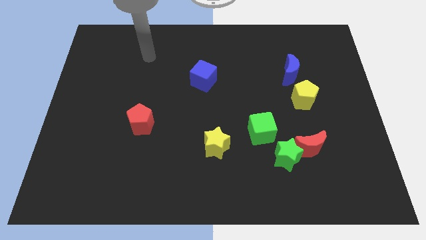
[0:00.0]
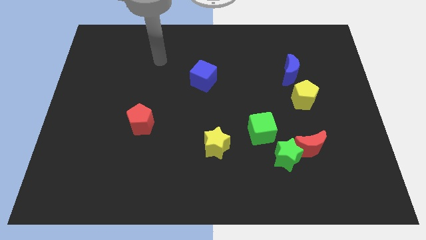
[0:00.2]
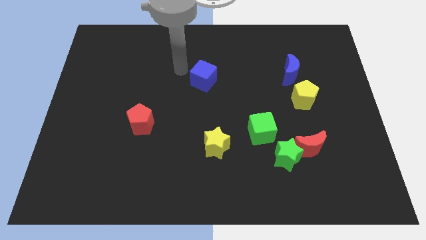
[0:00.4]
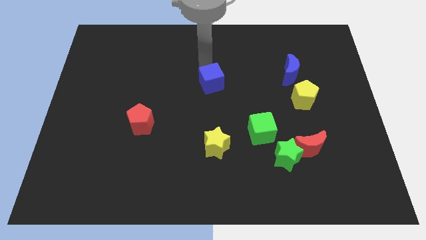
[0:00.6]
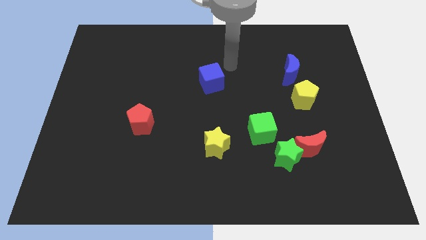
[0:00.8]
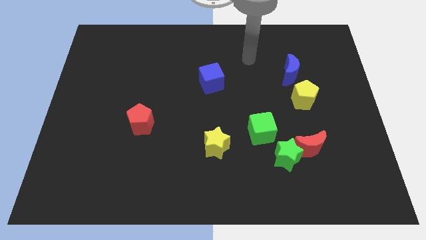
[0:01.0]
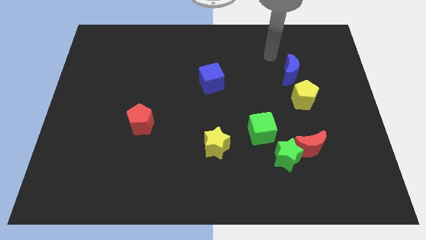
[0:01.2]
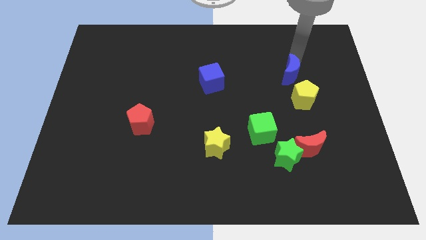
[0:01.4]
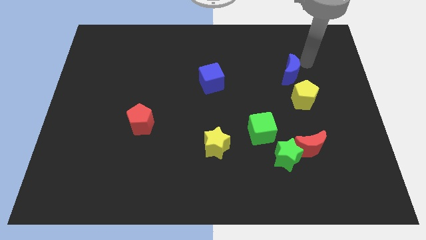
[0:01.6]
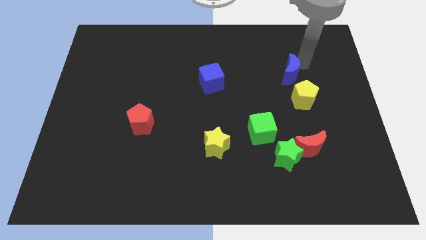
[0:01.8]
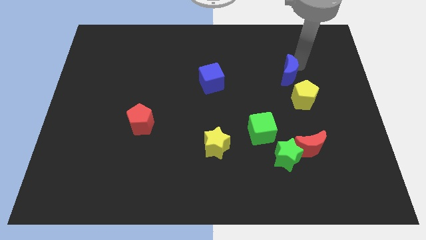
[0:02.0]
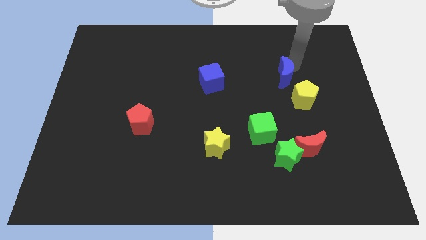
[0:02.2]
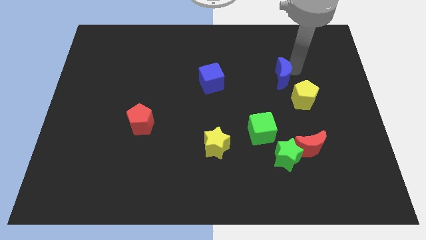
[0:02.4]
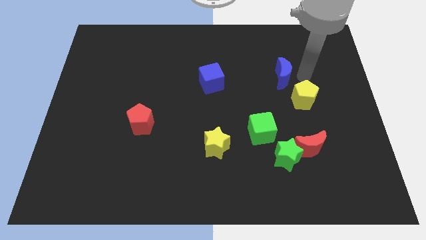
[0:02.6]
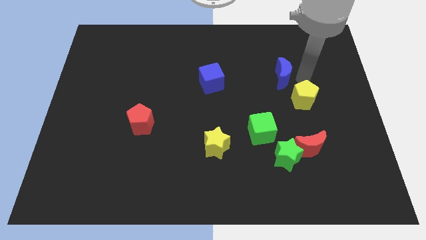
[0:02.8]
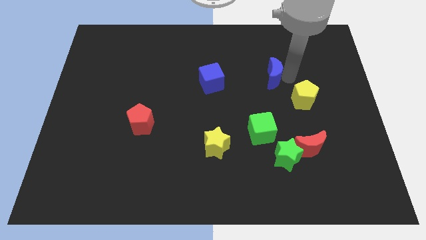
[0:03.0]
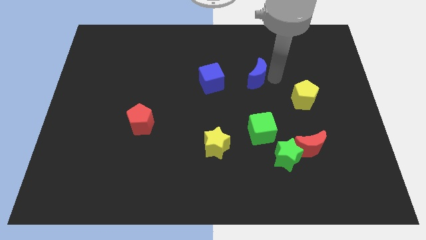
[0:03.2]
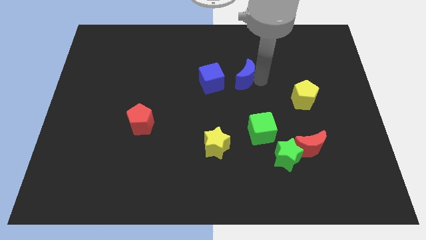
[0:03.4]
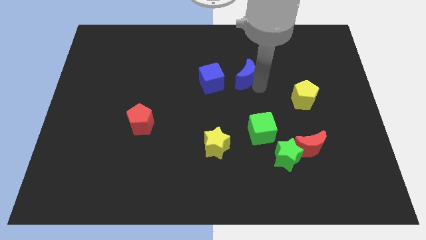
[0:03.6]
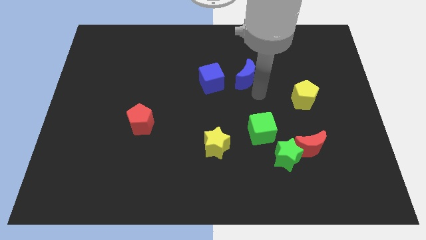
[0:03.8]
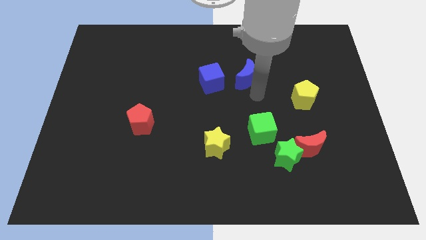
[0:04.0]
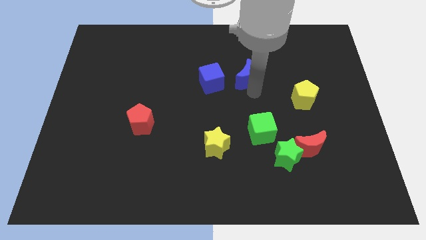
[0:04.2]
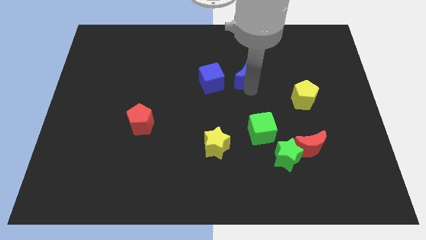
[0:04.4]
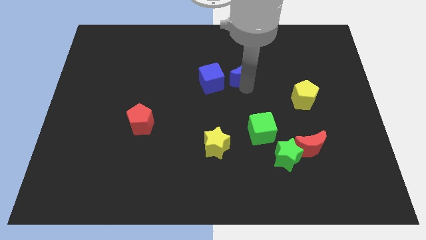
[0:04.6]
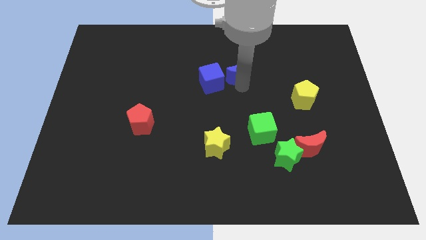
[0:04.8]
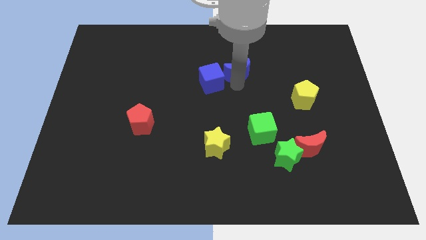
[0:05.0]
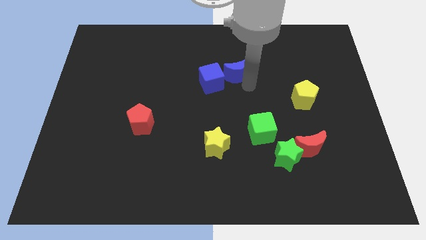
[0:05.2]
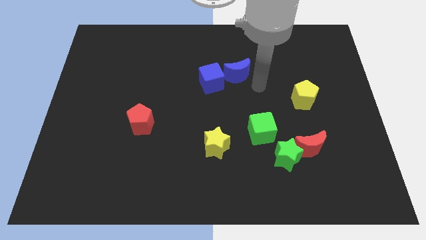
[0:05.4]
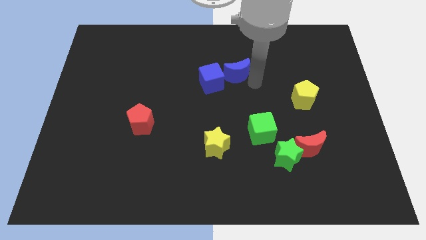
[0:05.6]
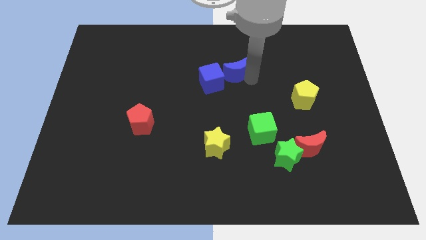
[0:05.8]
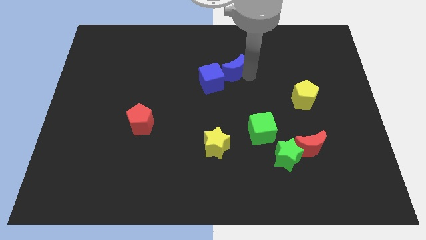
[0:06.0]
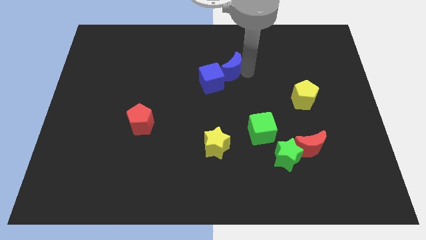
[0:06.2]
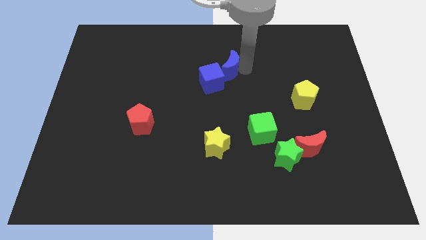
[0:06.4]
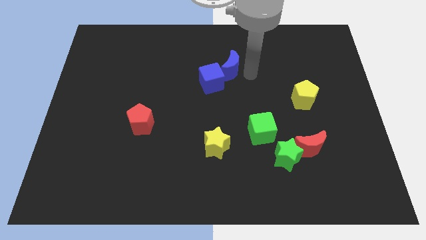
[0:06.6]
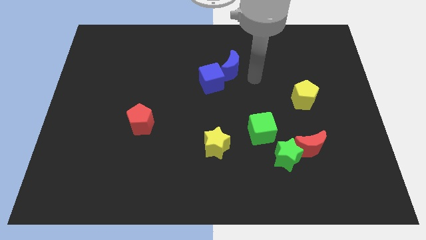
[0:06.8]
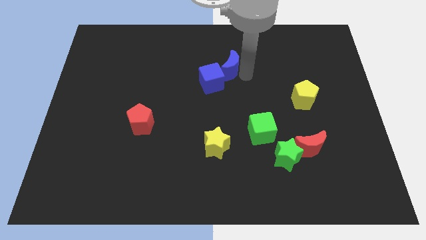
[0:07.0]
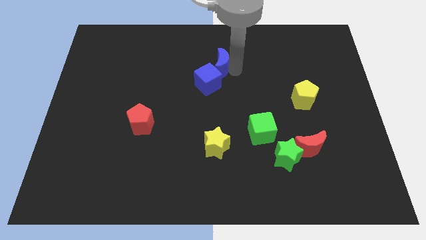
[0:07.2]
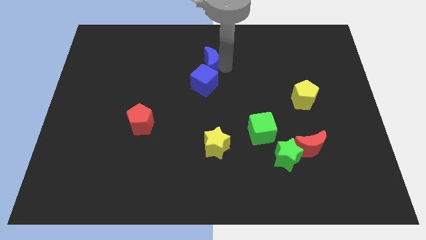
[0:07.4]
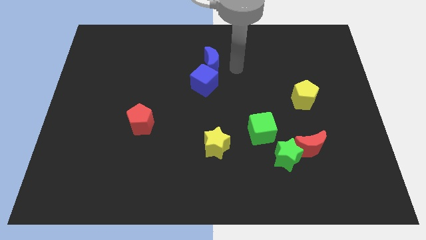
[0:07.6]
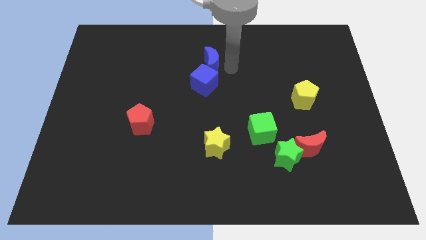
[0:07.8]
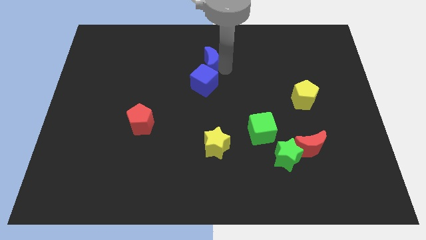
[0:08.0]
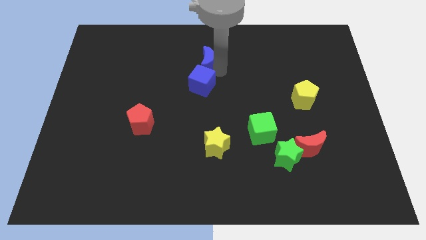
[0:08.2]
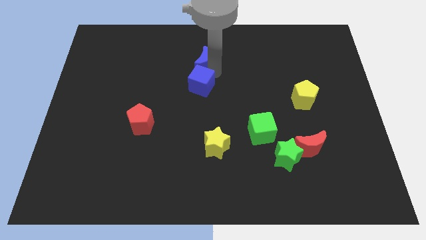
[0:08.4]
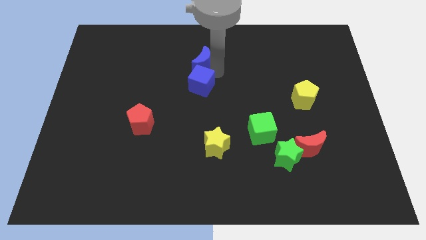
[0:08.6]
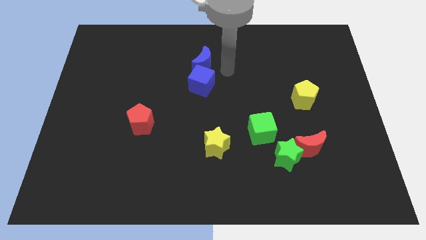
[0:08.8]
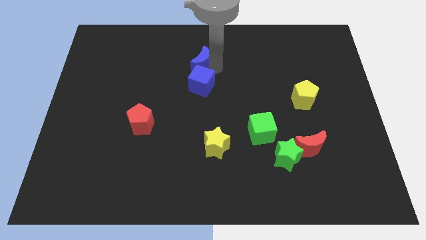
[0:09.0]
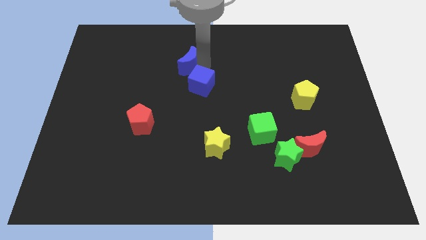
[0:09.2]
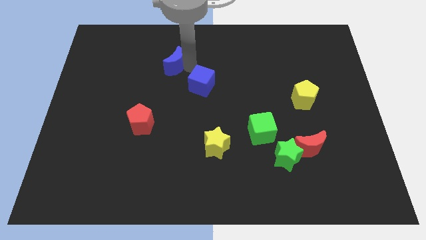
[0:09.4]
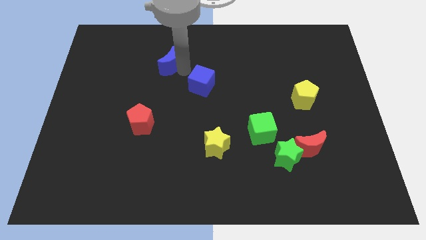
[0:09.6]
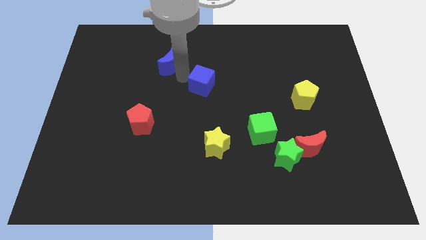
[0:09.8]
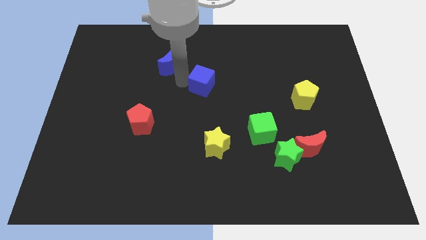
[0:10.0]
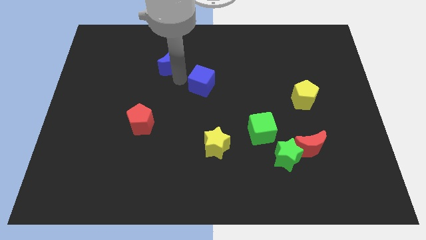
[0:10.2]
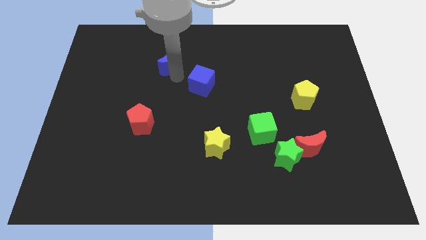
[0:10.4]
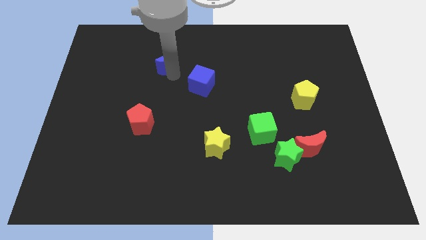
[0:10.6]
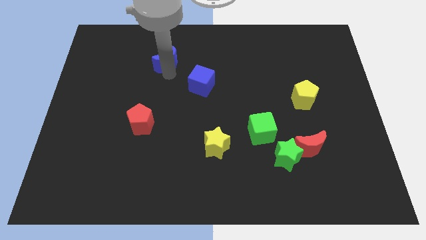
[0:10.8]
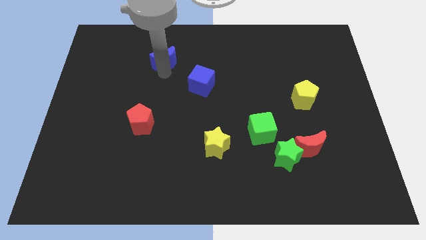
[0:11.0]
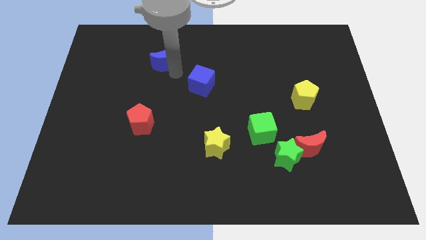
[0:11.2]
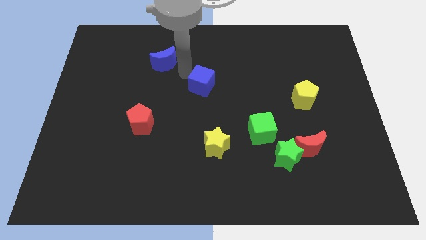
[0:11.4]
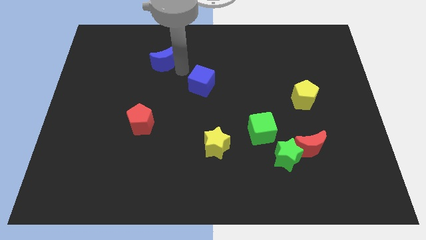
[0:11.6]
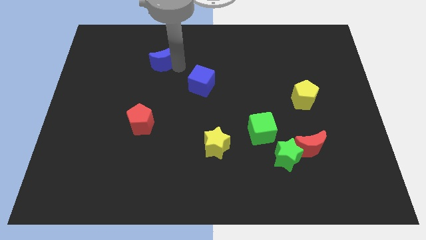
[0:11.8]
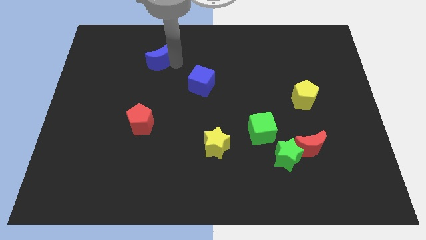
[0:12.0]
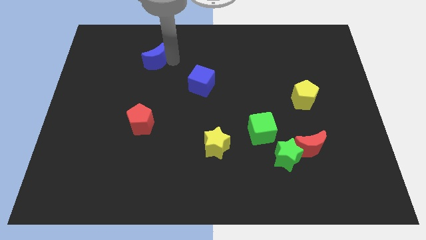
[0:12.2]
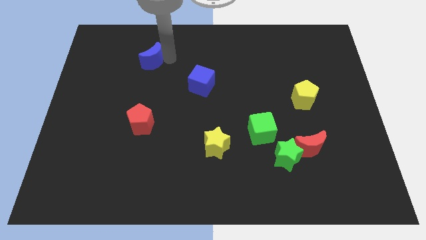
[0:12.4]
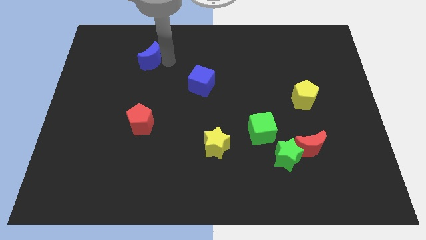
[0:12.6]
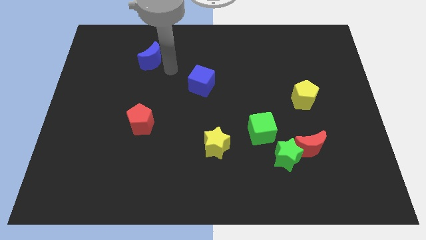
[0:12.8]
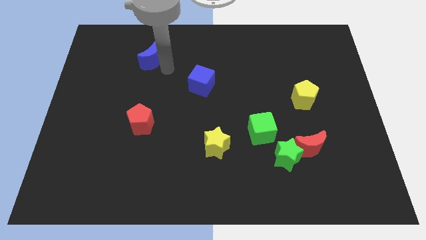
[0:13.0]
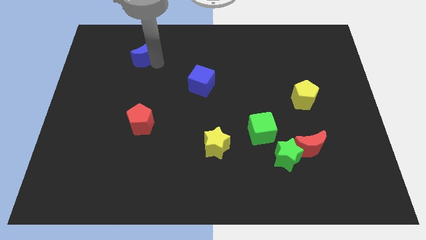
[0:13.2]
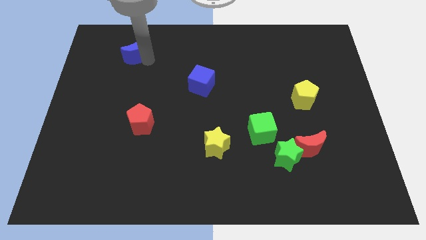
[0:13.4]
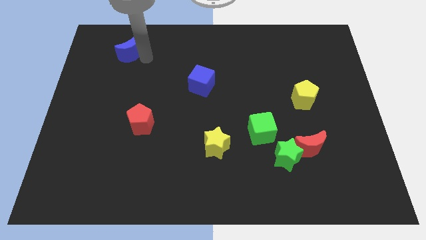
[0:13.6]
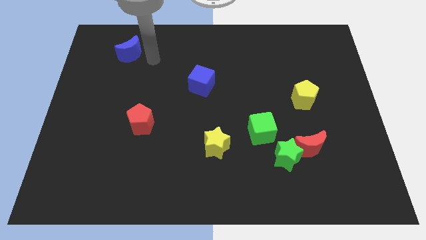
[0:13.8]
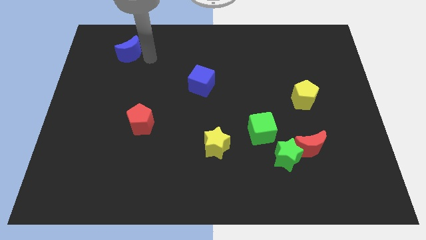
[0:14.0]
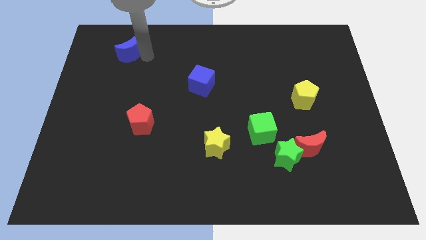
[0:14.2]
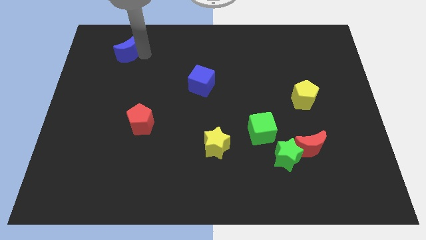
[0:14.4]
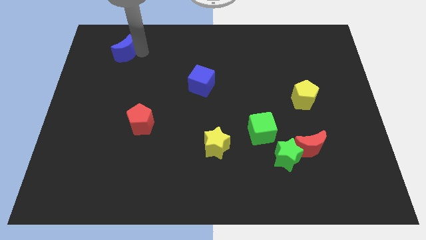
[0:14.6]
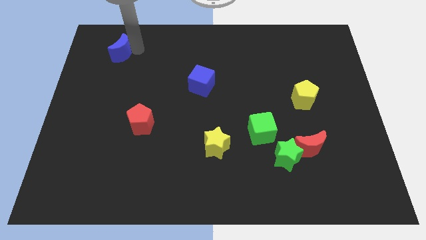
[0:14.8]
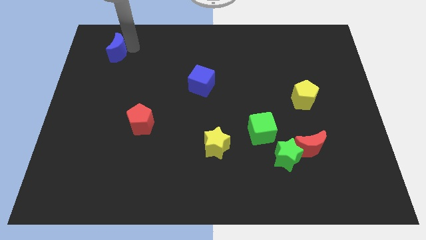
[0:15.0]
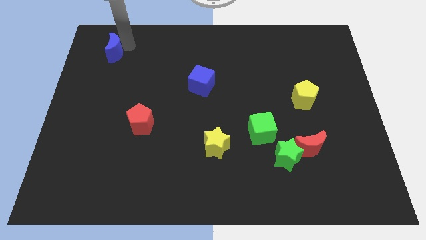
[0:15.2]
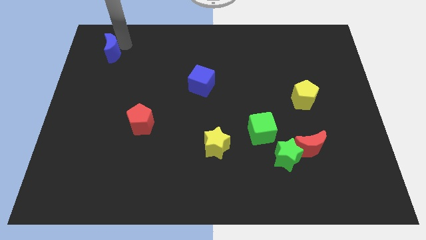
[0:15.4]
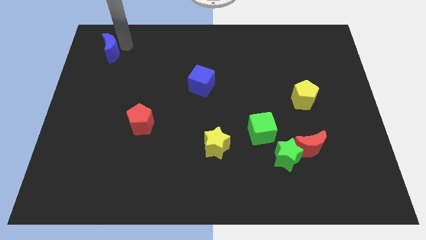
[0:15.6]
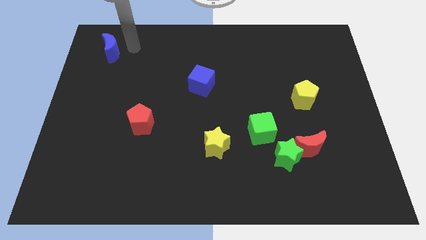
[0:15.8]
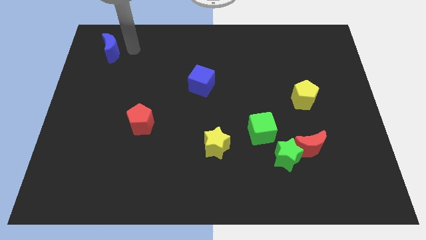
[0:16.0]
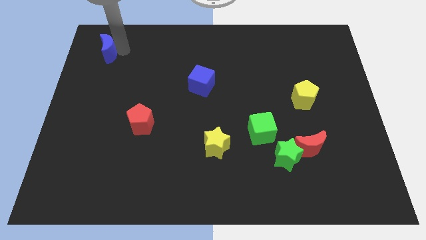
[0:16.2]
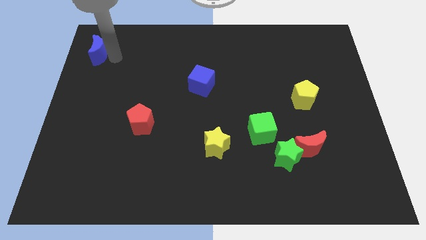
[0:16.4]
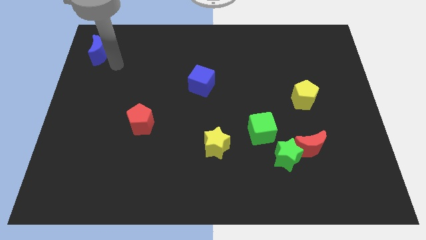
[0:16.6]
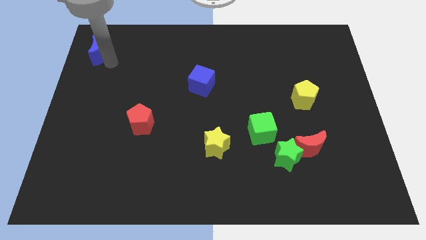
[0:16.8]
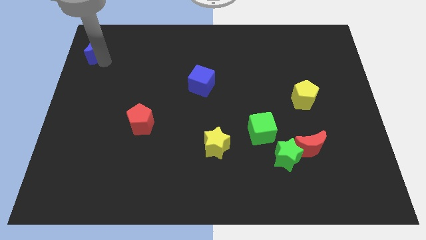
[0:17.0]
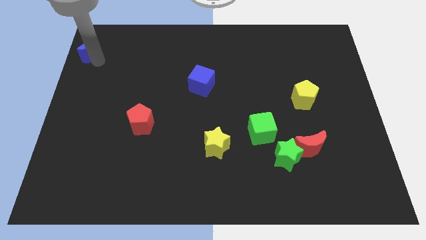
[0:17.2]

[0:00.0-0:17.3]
push the blue moon to the top left of the board
